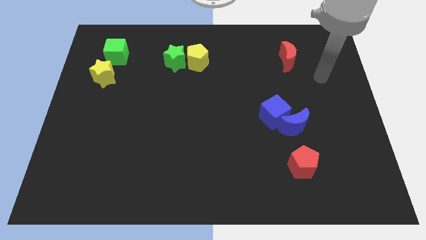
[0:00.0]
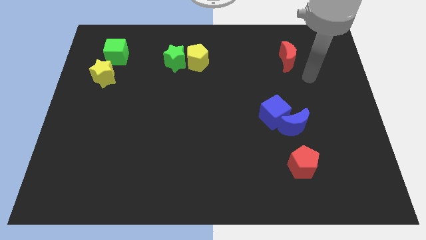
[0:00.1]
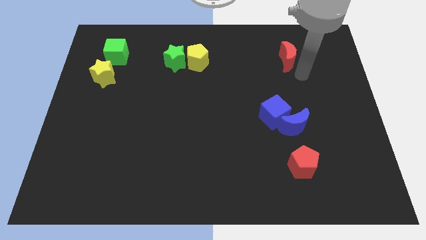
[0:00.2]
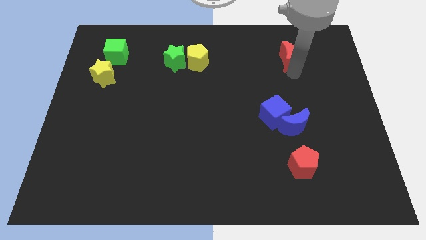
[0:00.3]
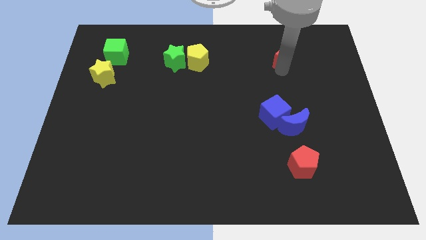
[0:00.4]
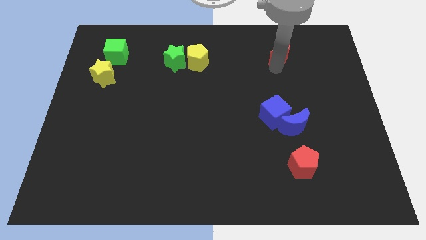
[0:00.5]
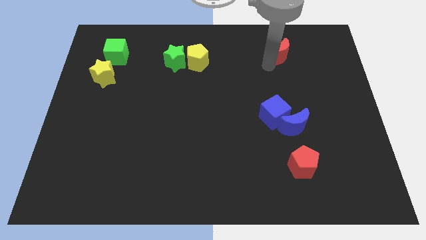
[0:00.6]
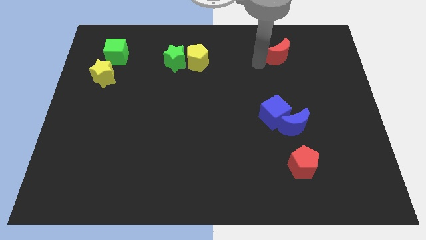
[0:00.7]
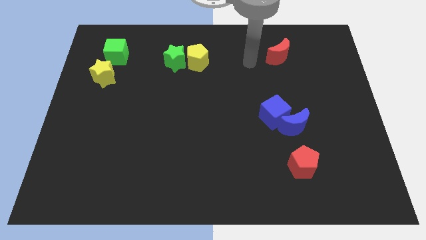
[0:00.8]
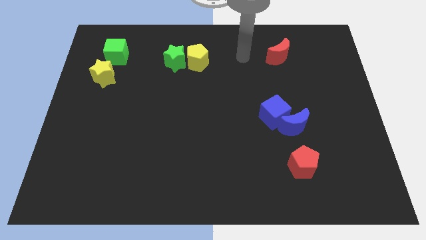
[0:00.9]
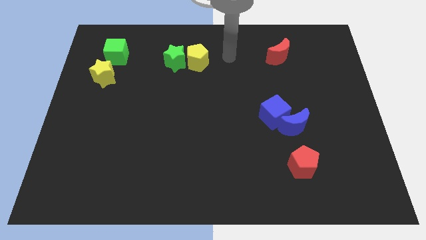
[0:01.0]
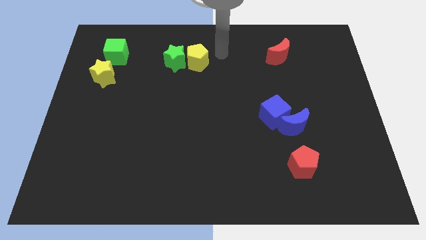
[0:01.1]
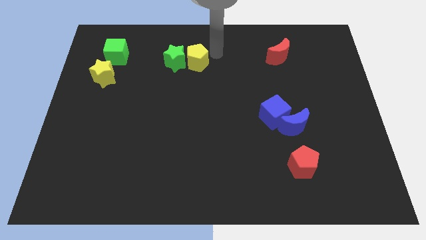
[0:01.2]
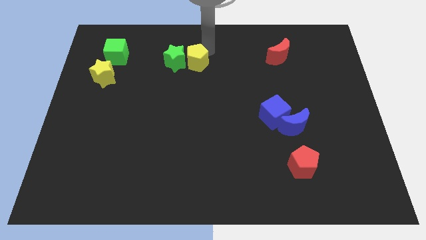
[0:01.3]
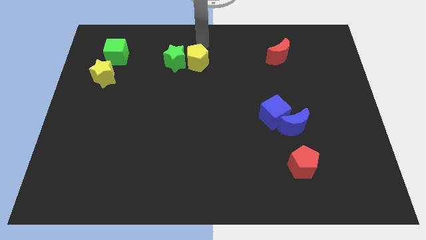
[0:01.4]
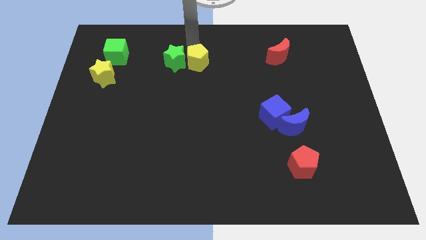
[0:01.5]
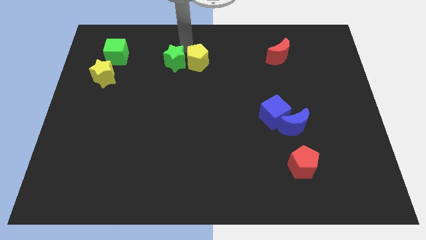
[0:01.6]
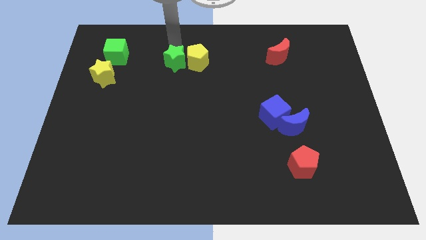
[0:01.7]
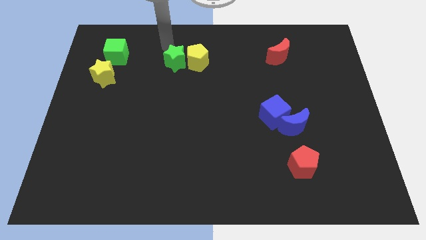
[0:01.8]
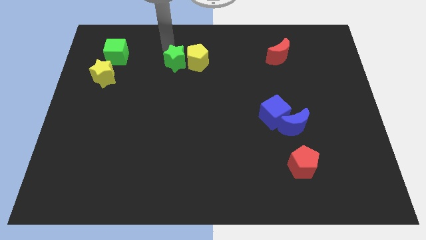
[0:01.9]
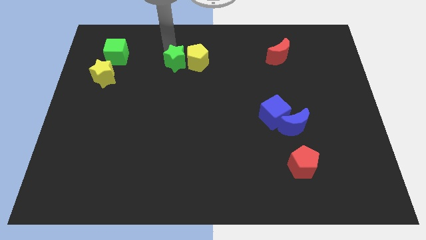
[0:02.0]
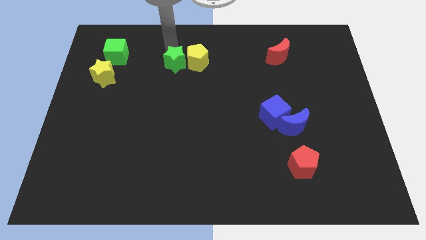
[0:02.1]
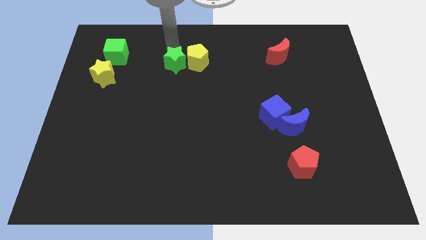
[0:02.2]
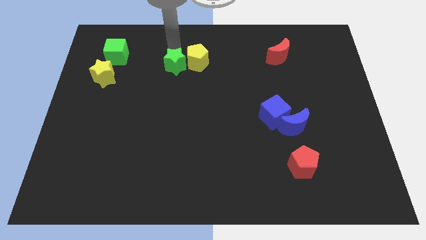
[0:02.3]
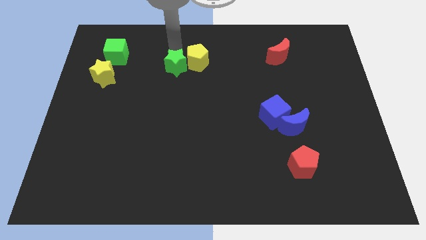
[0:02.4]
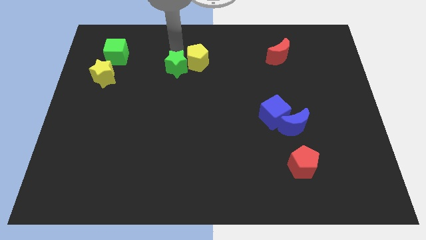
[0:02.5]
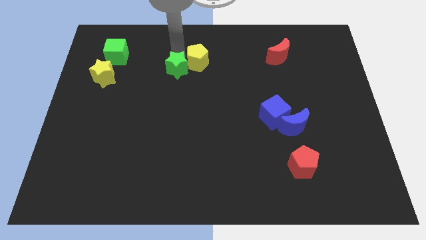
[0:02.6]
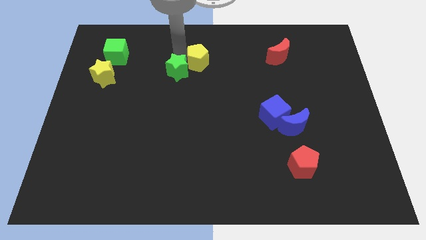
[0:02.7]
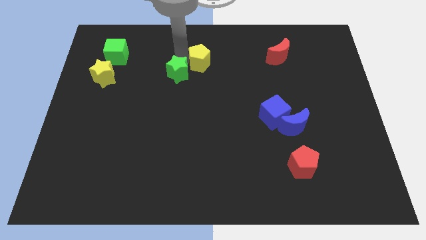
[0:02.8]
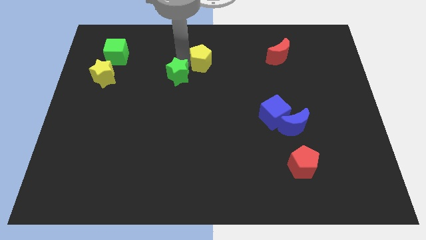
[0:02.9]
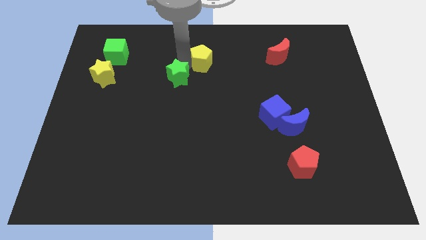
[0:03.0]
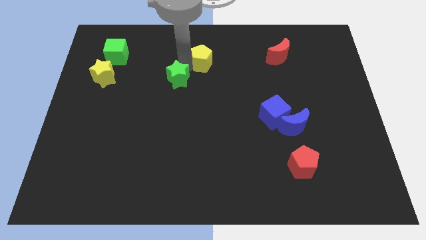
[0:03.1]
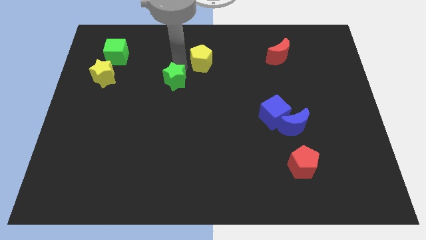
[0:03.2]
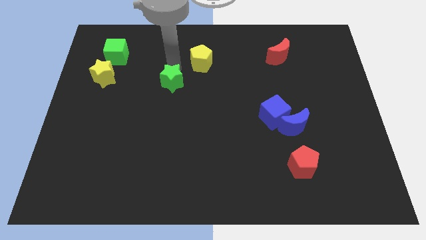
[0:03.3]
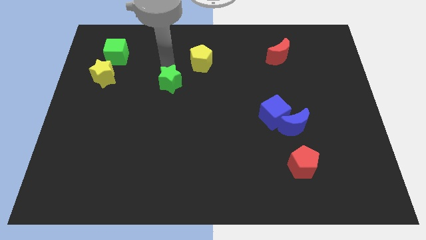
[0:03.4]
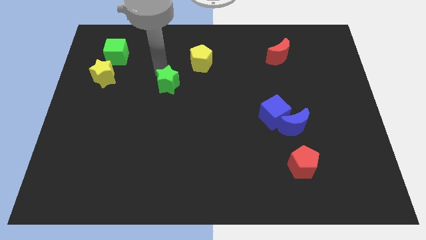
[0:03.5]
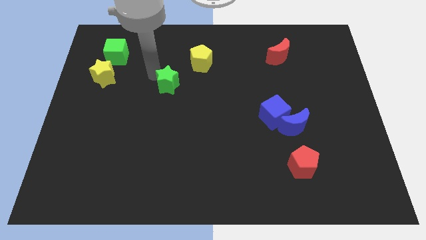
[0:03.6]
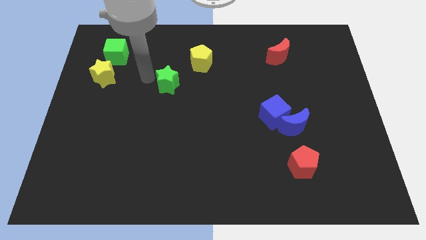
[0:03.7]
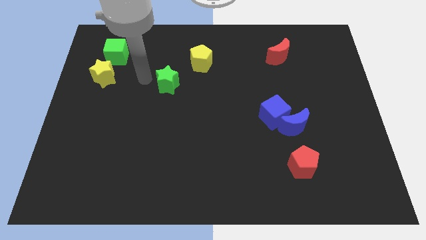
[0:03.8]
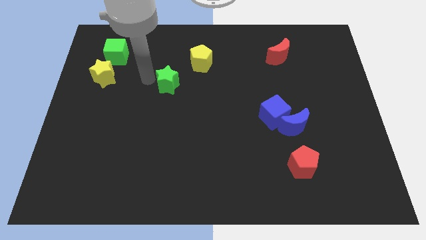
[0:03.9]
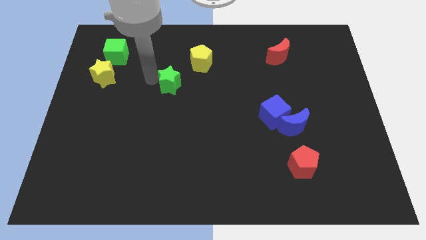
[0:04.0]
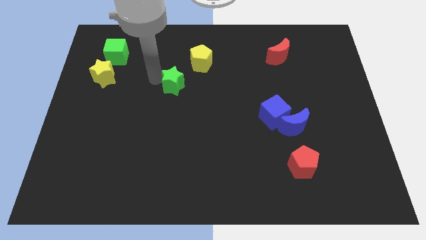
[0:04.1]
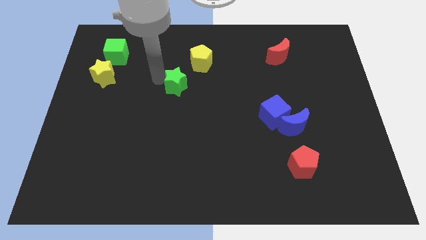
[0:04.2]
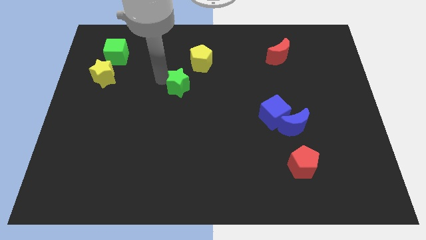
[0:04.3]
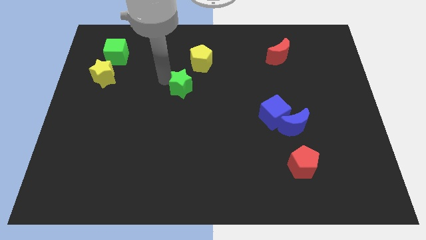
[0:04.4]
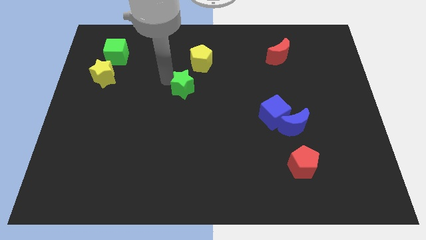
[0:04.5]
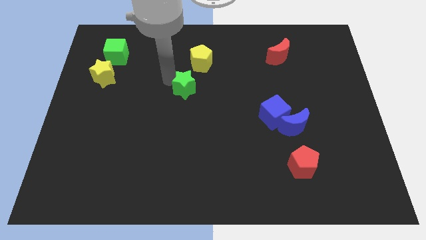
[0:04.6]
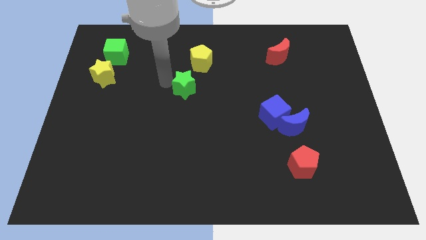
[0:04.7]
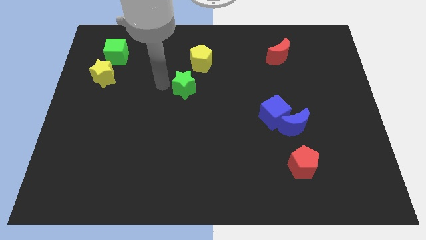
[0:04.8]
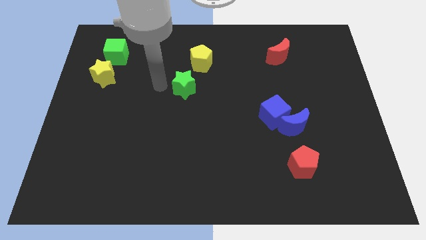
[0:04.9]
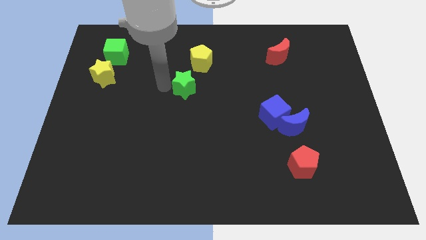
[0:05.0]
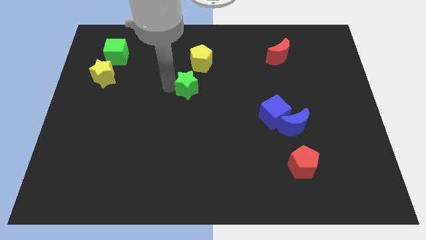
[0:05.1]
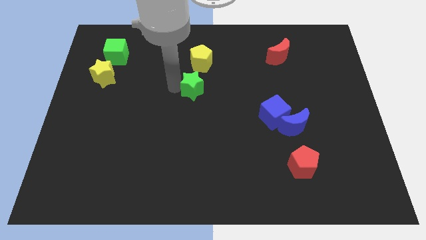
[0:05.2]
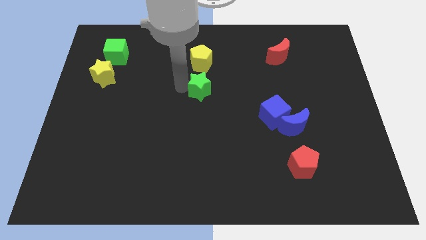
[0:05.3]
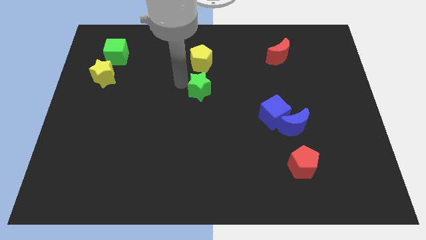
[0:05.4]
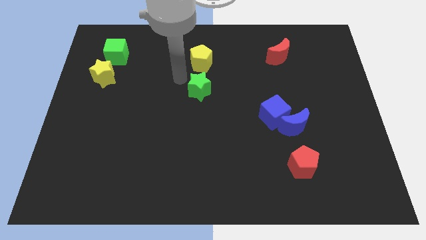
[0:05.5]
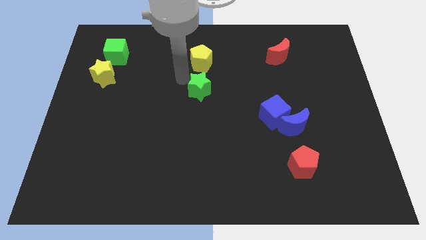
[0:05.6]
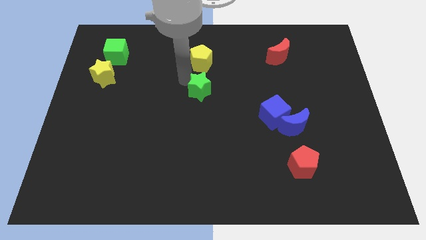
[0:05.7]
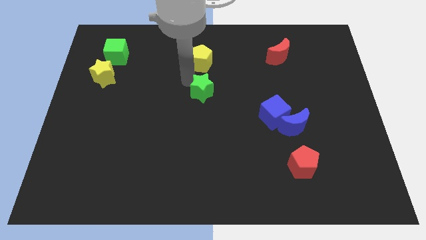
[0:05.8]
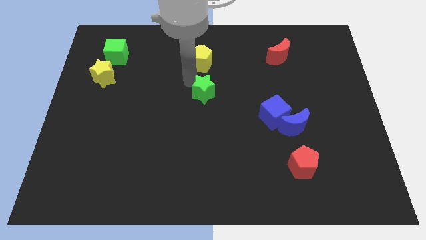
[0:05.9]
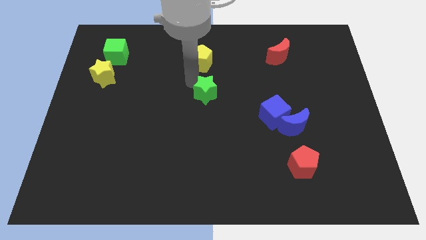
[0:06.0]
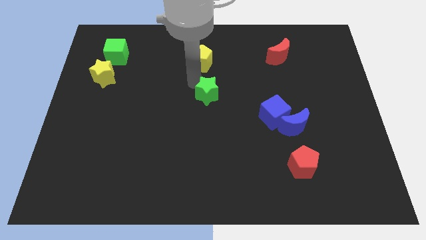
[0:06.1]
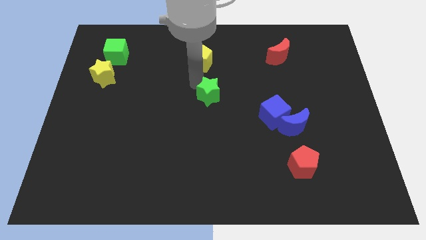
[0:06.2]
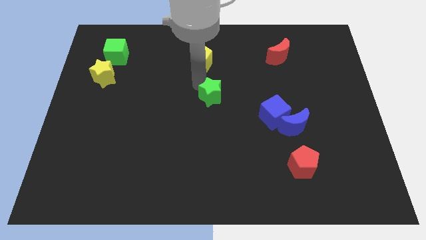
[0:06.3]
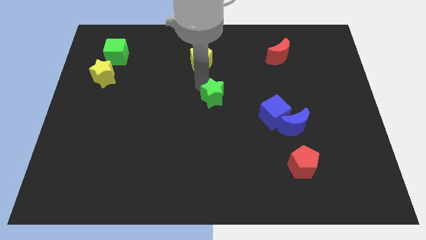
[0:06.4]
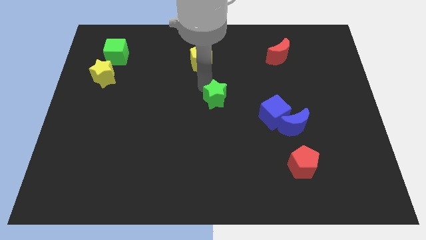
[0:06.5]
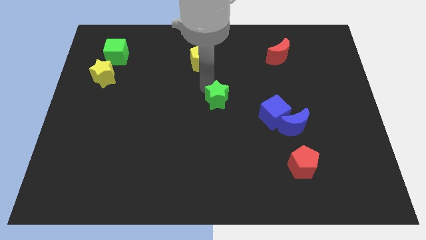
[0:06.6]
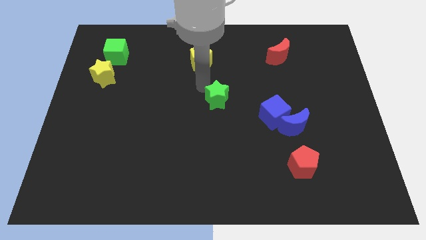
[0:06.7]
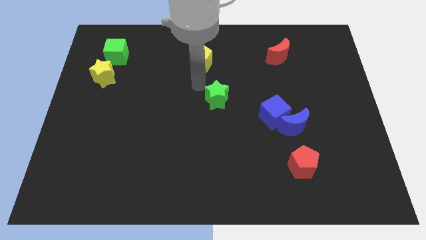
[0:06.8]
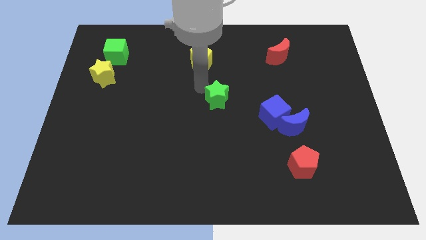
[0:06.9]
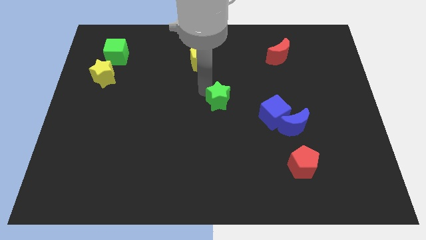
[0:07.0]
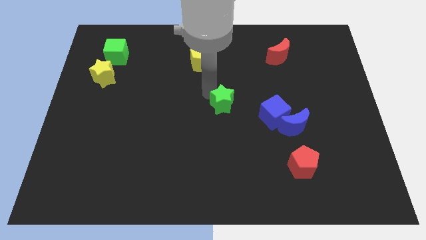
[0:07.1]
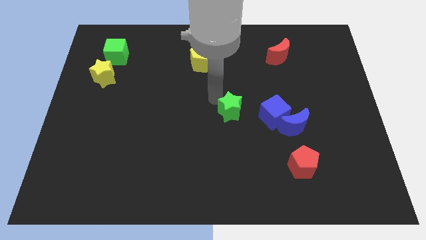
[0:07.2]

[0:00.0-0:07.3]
move the green star downwards and to the right diagonally

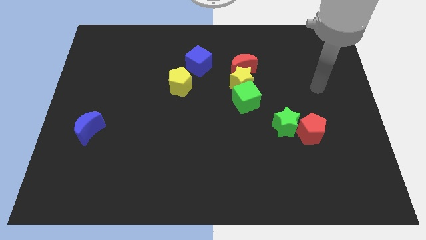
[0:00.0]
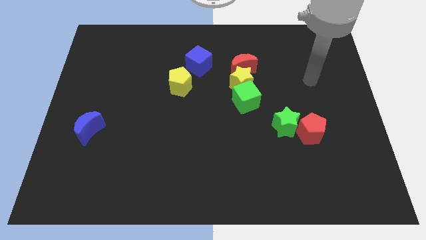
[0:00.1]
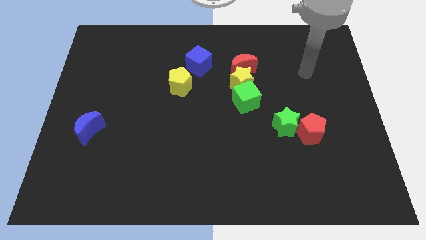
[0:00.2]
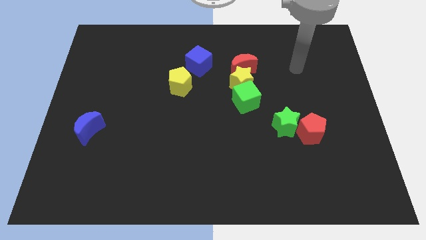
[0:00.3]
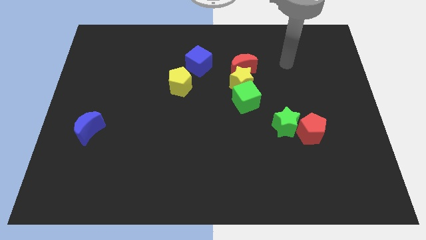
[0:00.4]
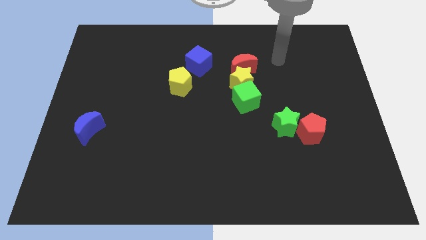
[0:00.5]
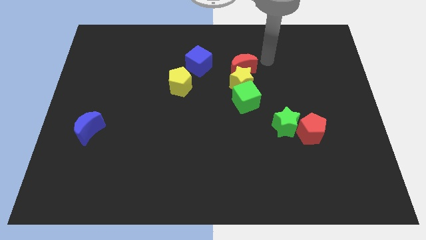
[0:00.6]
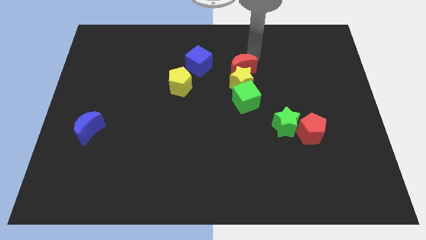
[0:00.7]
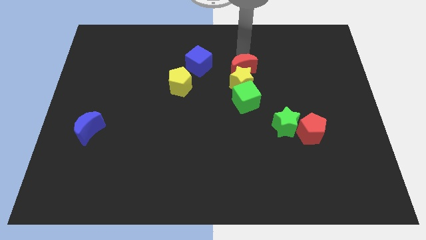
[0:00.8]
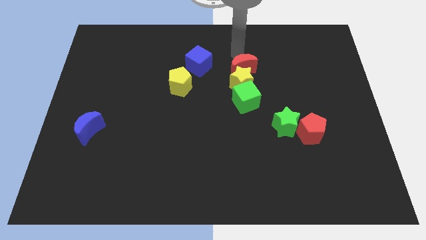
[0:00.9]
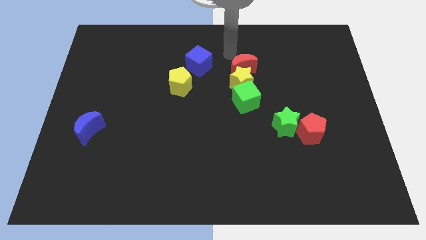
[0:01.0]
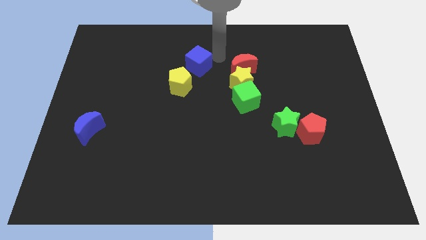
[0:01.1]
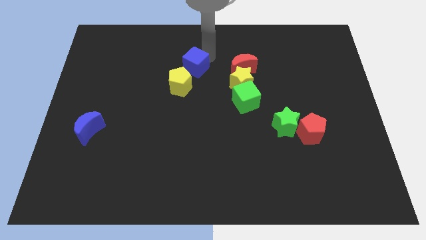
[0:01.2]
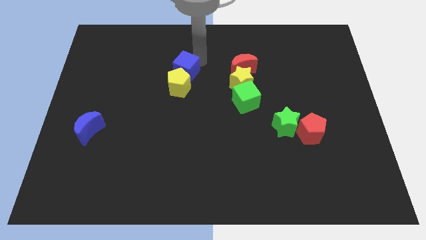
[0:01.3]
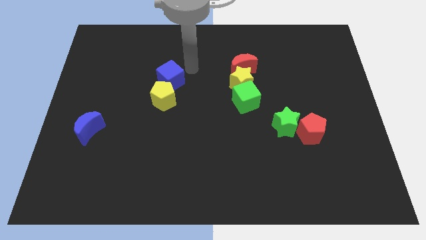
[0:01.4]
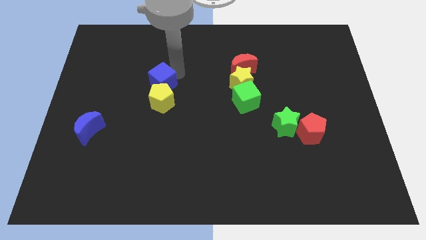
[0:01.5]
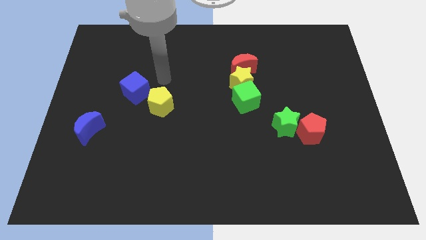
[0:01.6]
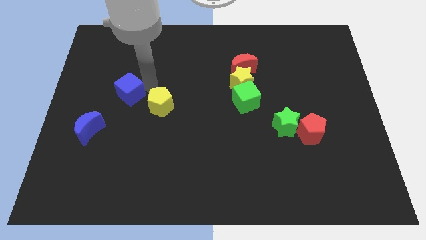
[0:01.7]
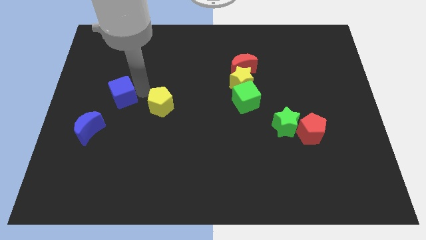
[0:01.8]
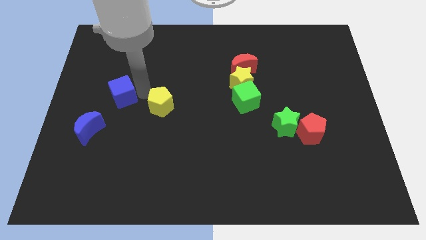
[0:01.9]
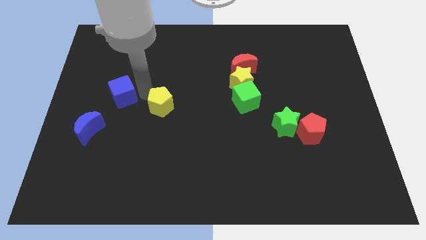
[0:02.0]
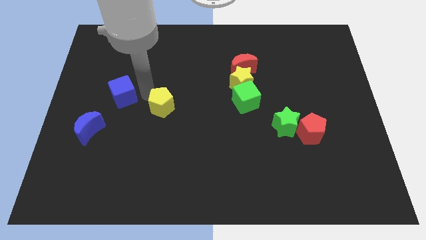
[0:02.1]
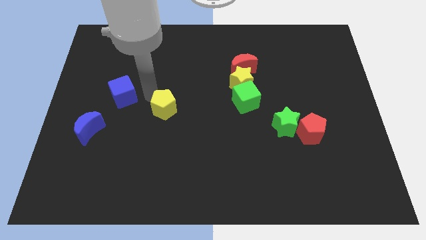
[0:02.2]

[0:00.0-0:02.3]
slide the yellow pentagon downwards a little
